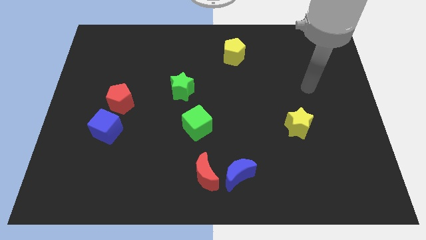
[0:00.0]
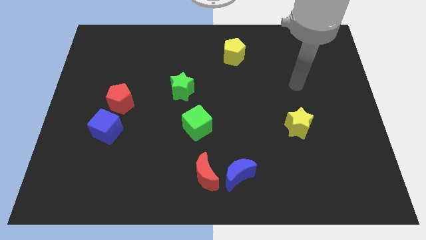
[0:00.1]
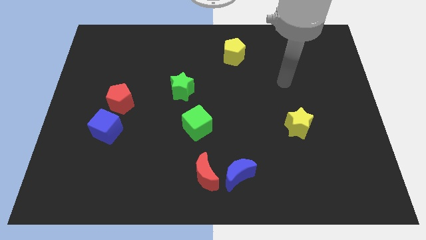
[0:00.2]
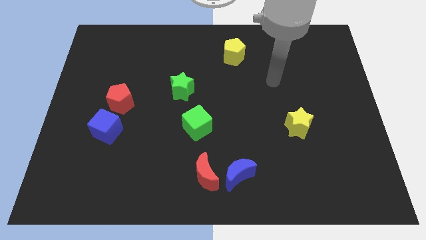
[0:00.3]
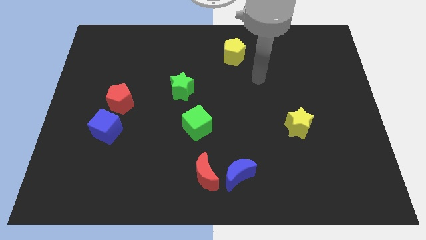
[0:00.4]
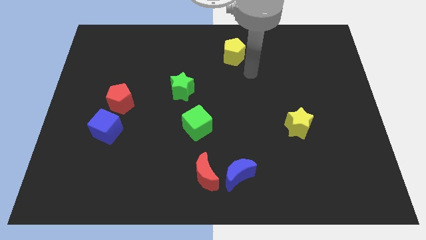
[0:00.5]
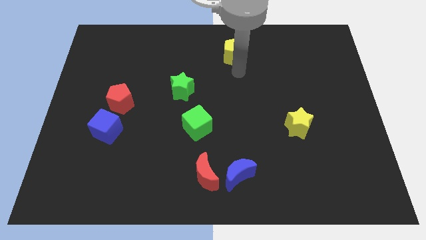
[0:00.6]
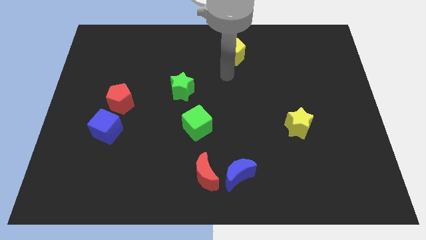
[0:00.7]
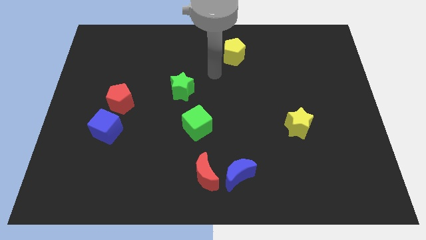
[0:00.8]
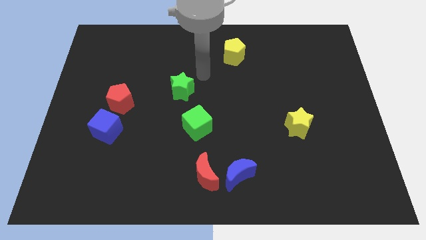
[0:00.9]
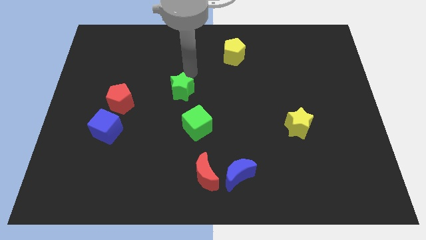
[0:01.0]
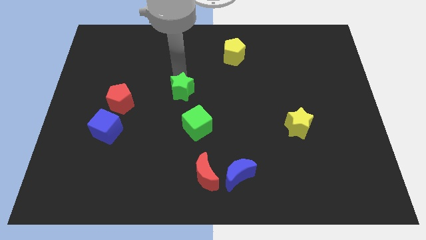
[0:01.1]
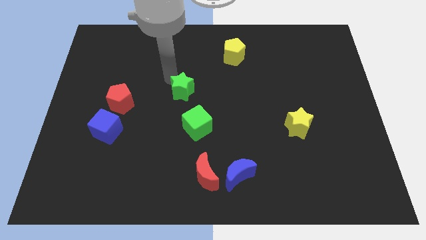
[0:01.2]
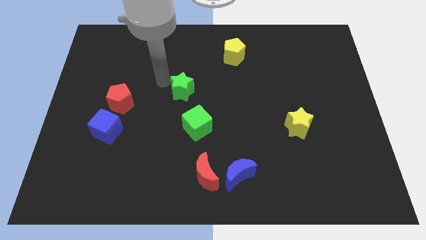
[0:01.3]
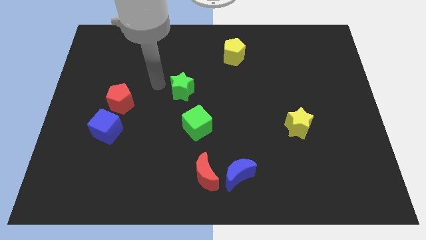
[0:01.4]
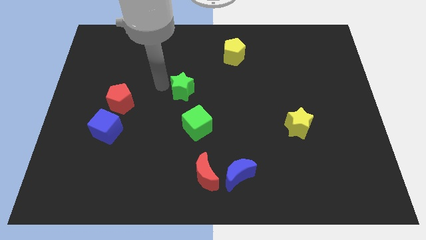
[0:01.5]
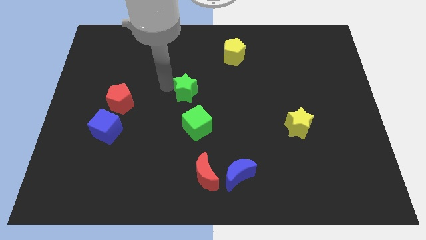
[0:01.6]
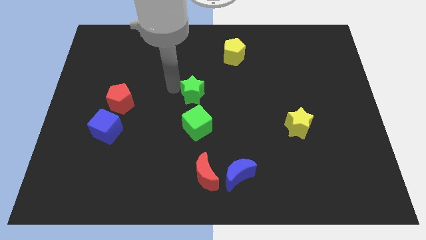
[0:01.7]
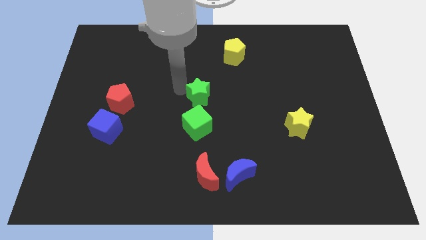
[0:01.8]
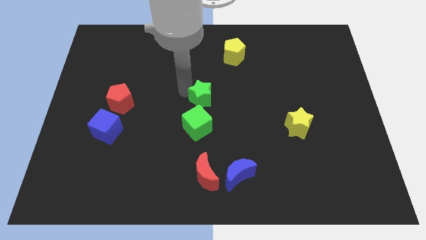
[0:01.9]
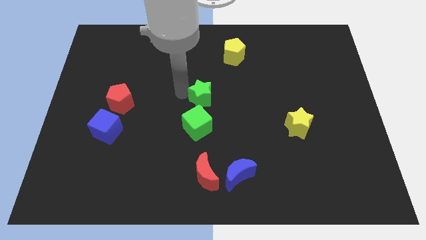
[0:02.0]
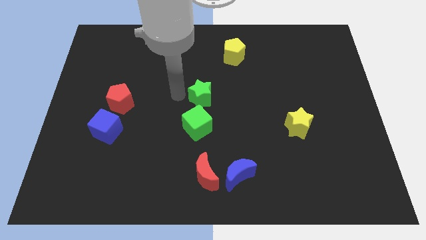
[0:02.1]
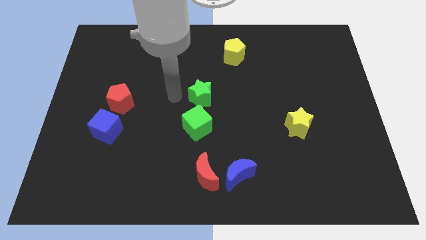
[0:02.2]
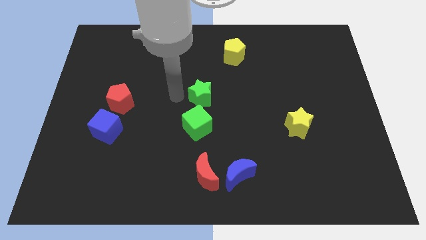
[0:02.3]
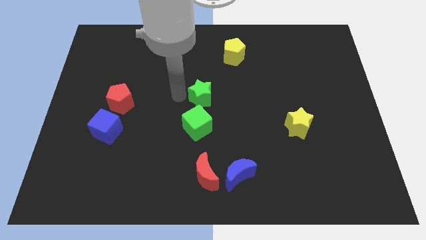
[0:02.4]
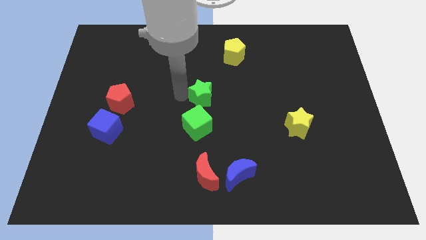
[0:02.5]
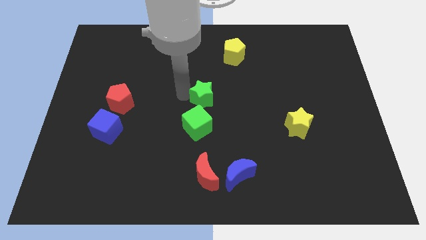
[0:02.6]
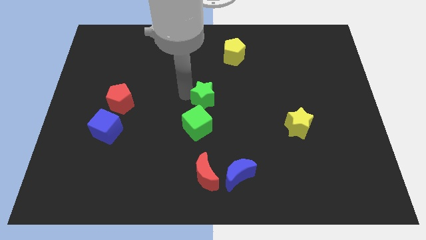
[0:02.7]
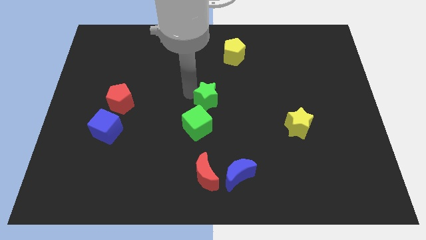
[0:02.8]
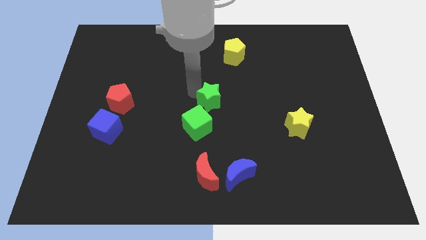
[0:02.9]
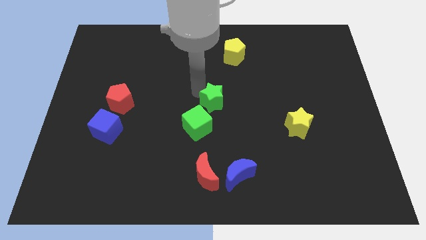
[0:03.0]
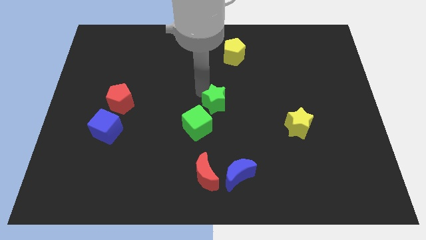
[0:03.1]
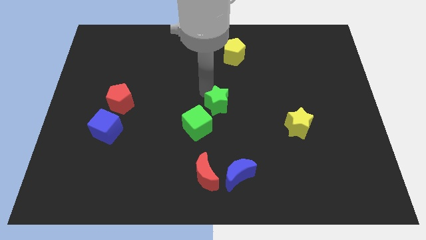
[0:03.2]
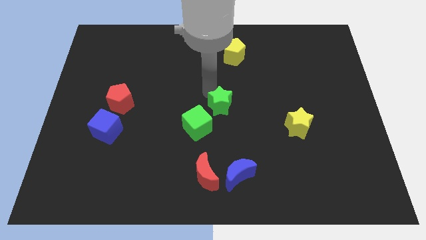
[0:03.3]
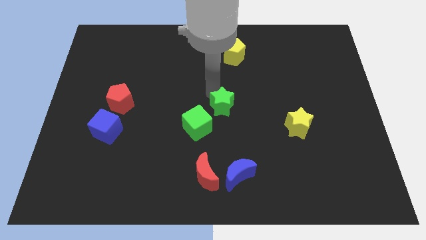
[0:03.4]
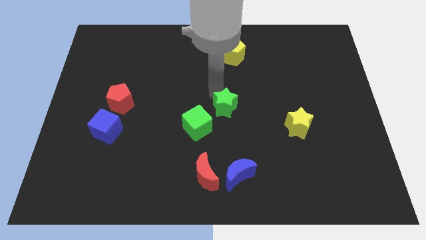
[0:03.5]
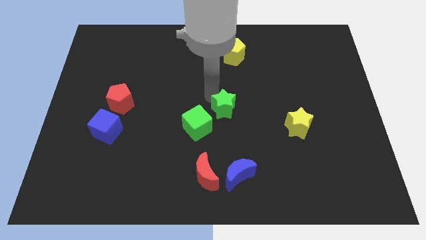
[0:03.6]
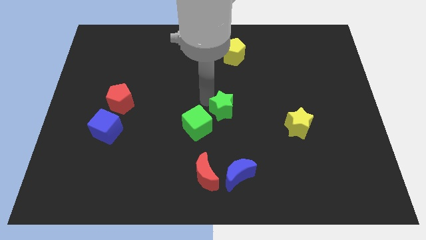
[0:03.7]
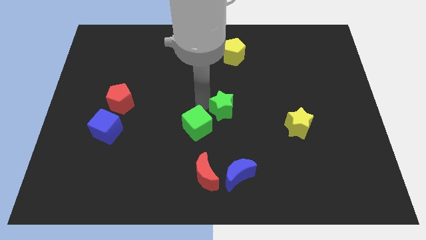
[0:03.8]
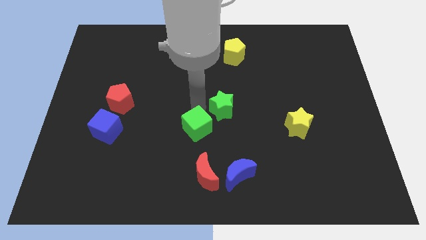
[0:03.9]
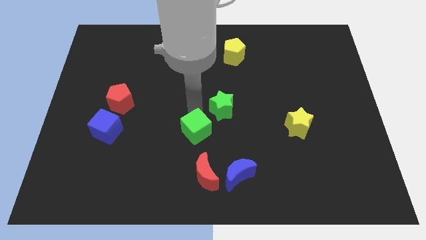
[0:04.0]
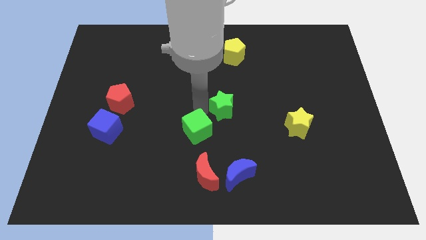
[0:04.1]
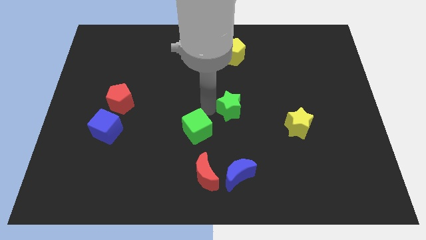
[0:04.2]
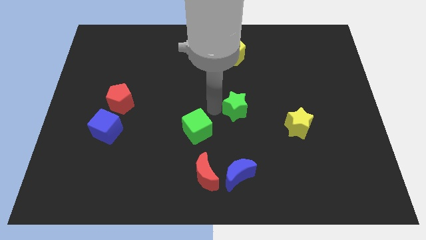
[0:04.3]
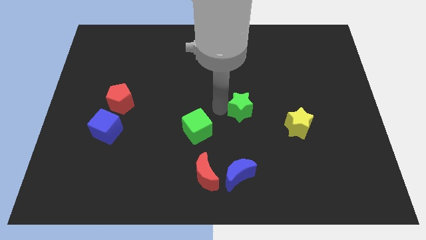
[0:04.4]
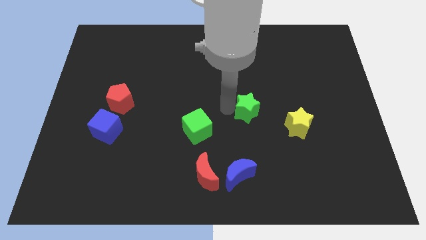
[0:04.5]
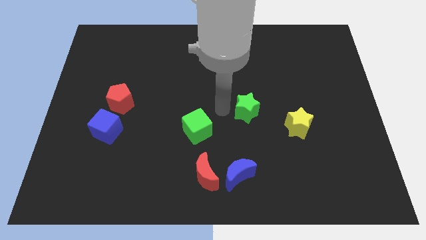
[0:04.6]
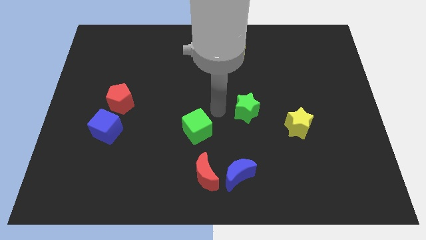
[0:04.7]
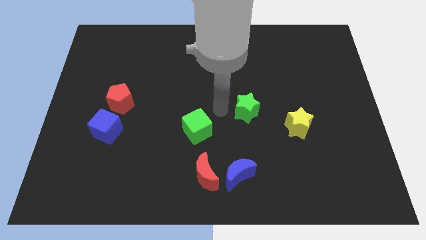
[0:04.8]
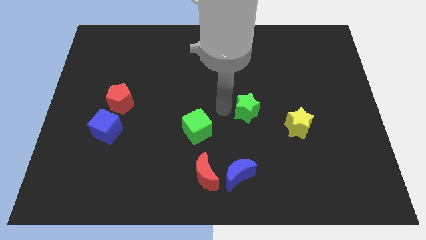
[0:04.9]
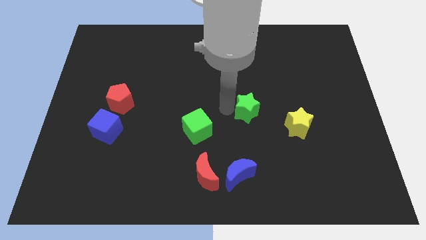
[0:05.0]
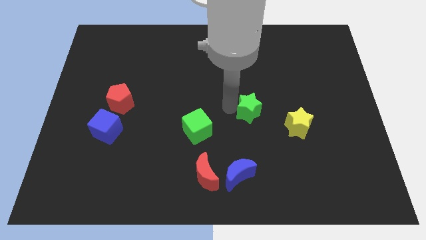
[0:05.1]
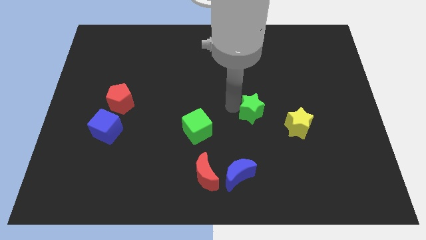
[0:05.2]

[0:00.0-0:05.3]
slide the green star diagonally up and to the left of the yellow star

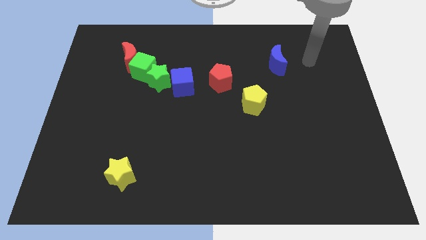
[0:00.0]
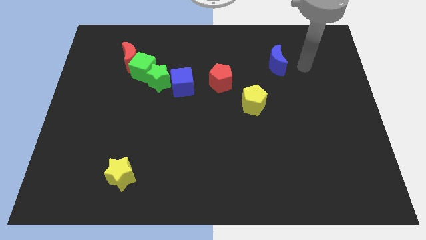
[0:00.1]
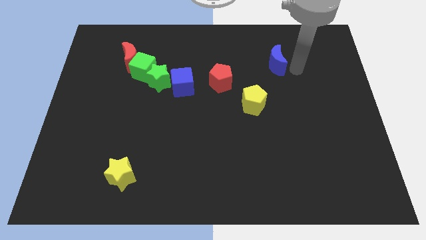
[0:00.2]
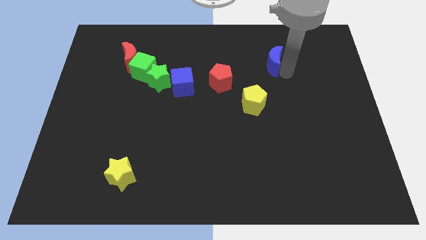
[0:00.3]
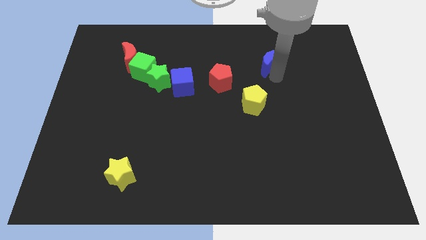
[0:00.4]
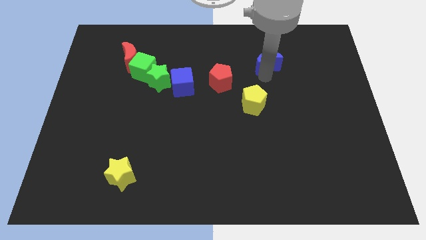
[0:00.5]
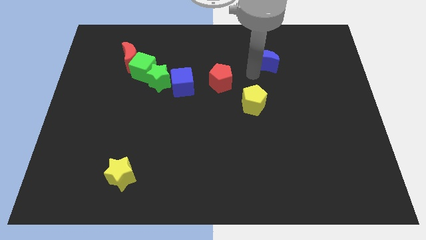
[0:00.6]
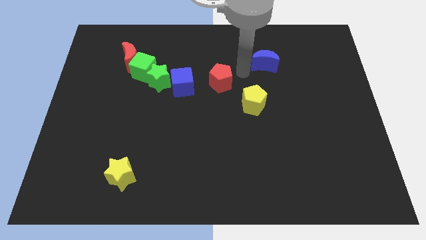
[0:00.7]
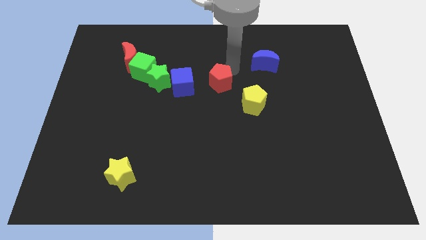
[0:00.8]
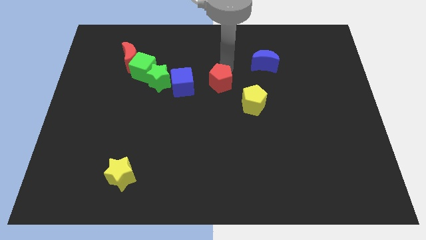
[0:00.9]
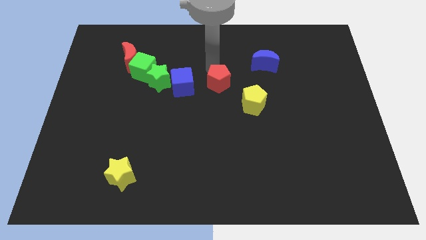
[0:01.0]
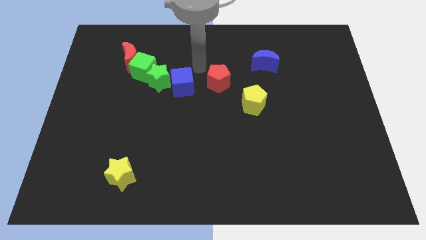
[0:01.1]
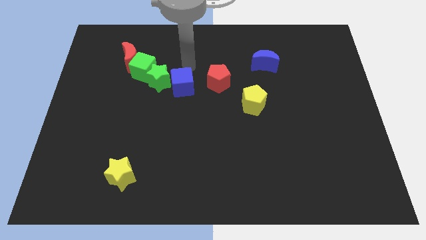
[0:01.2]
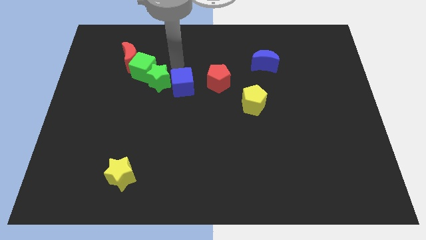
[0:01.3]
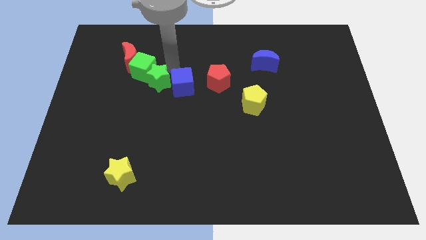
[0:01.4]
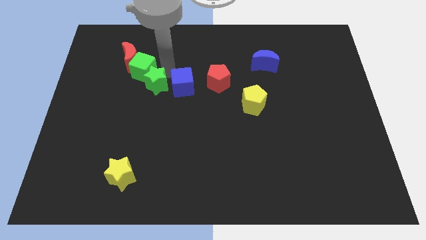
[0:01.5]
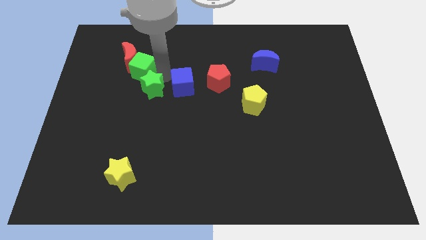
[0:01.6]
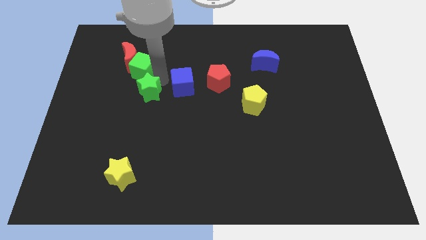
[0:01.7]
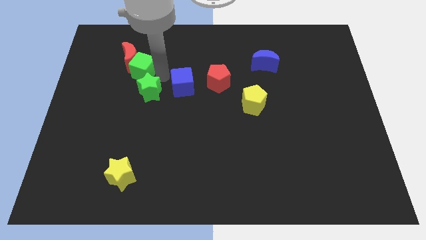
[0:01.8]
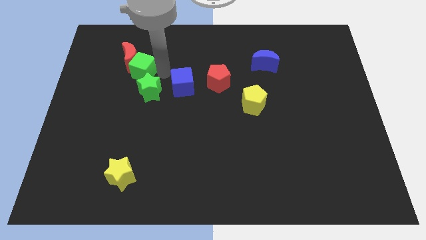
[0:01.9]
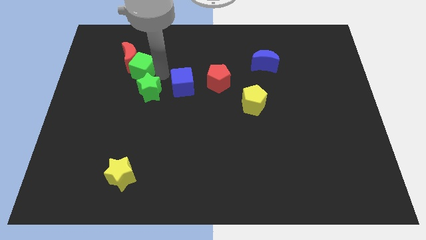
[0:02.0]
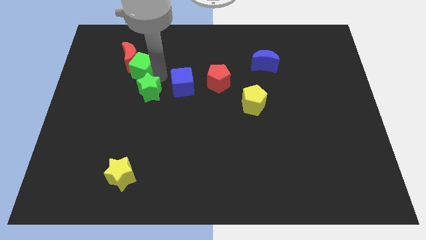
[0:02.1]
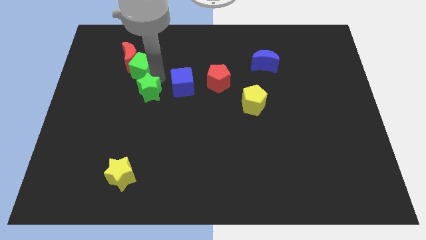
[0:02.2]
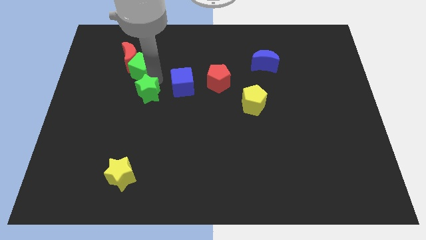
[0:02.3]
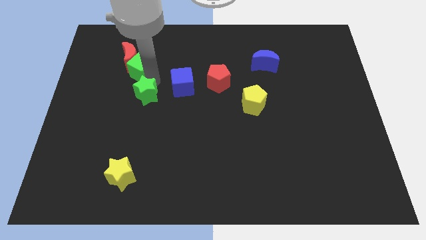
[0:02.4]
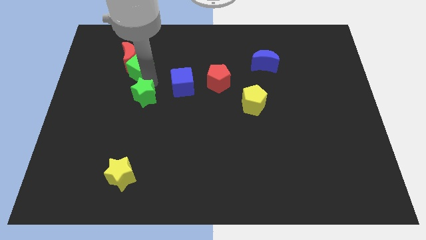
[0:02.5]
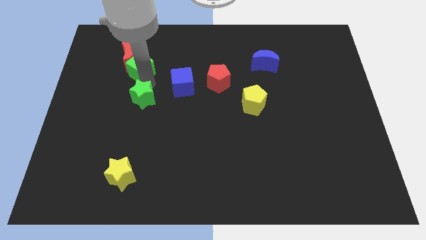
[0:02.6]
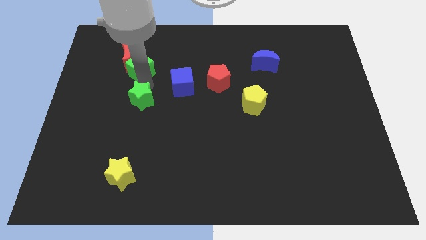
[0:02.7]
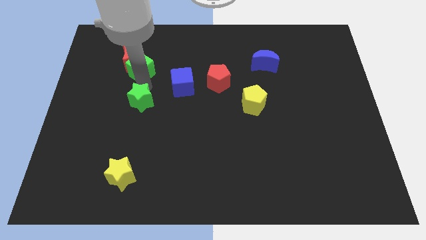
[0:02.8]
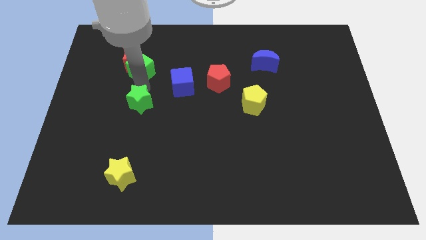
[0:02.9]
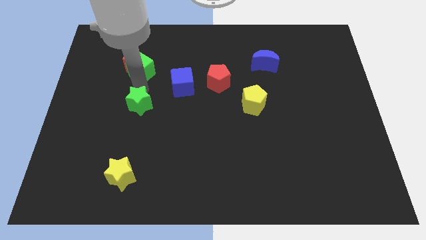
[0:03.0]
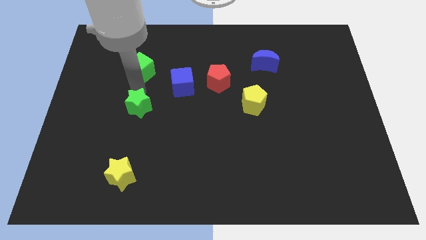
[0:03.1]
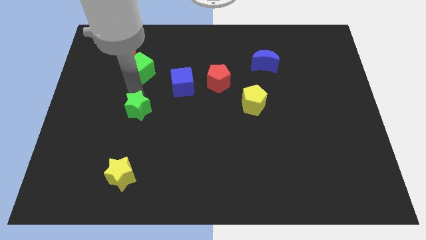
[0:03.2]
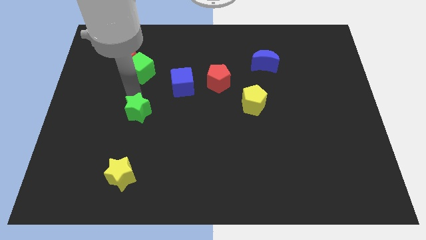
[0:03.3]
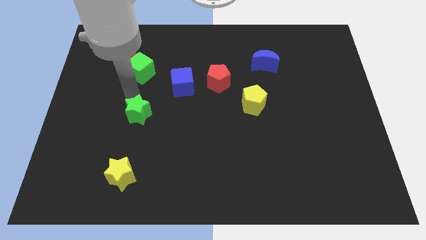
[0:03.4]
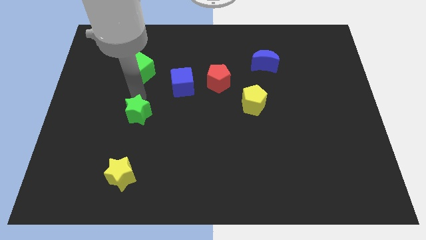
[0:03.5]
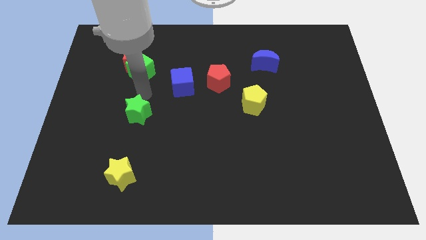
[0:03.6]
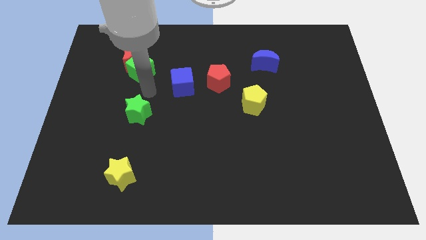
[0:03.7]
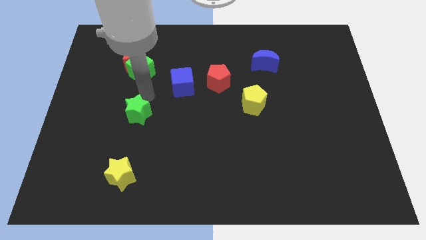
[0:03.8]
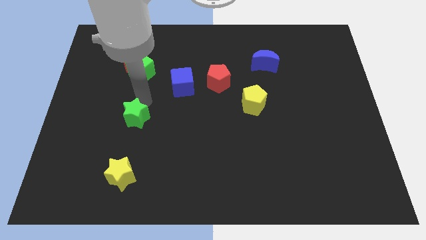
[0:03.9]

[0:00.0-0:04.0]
put the green star to the top of the yellow star
